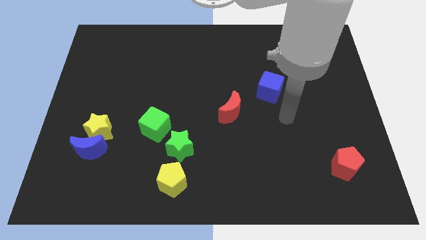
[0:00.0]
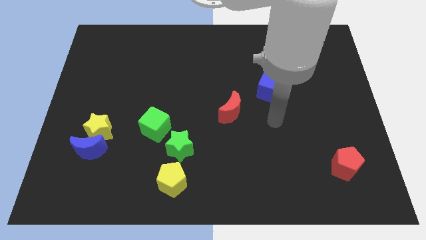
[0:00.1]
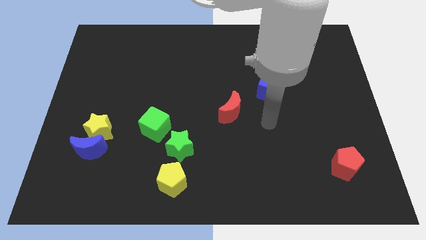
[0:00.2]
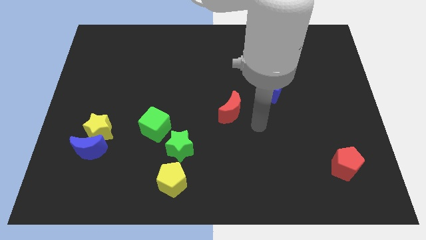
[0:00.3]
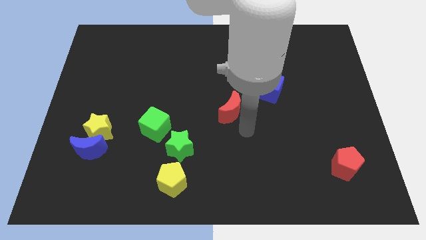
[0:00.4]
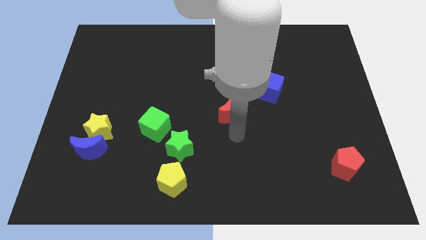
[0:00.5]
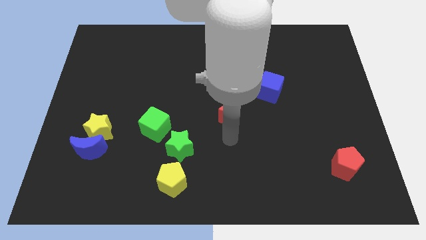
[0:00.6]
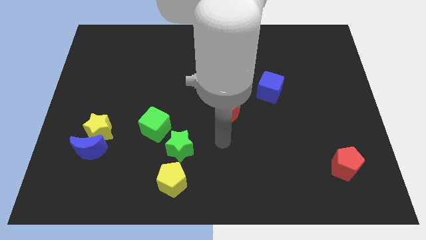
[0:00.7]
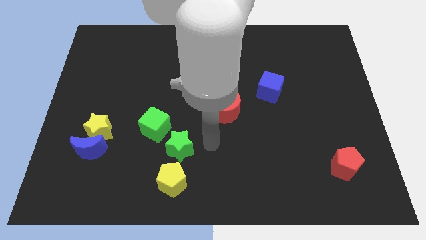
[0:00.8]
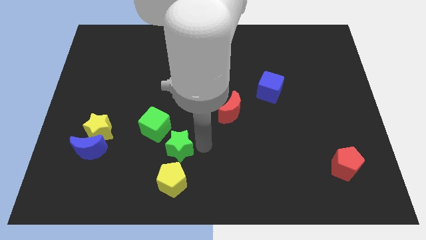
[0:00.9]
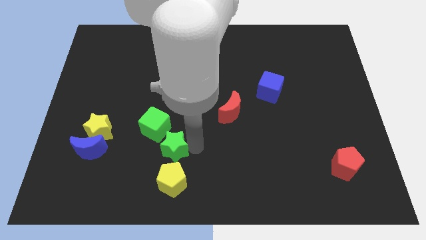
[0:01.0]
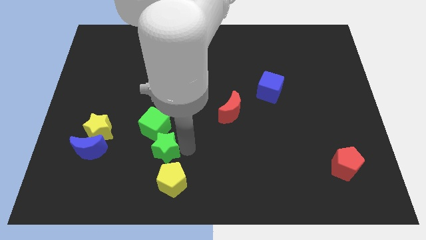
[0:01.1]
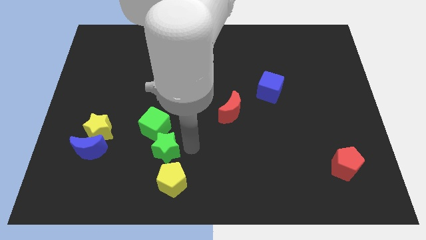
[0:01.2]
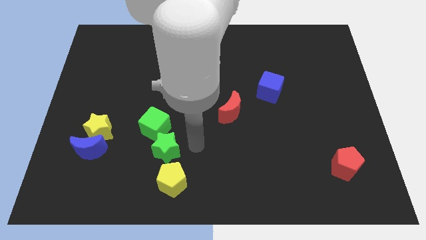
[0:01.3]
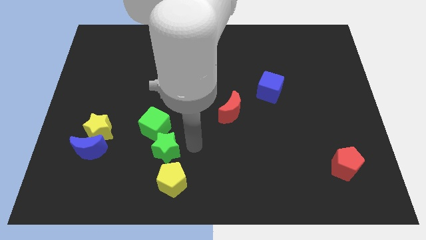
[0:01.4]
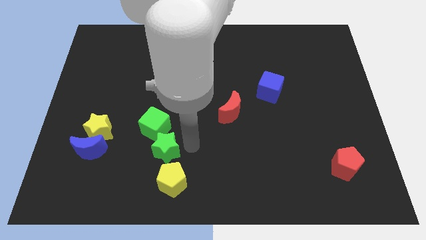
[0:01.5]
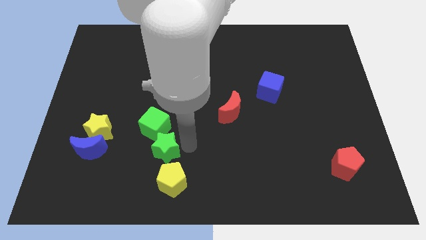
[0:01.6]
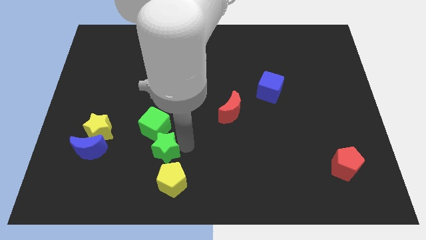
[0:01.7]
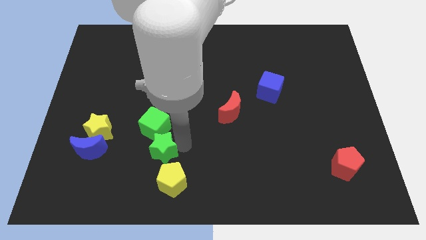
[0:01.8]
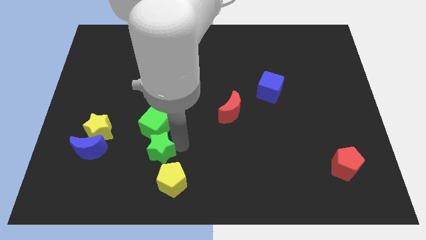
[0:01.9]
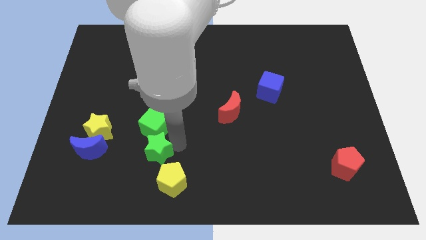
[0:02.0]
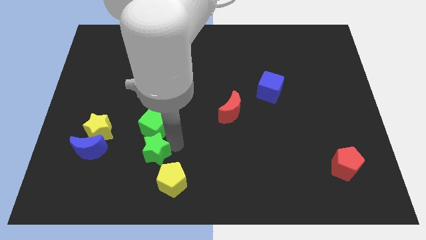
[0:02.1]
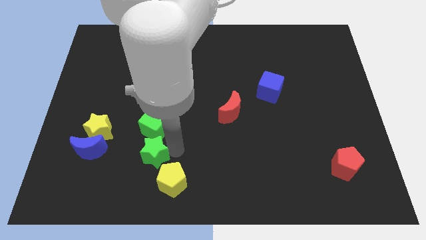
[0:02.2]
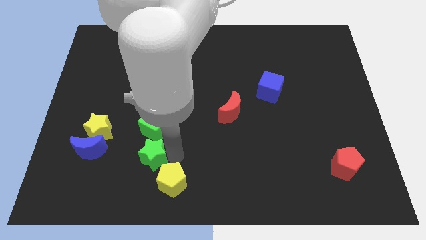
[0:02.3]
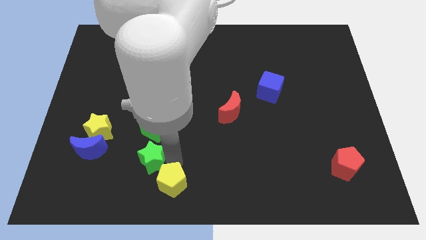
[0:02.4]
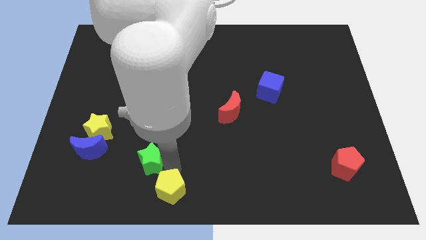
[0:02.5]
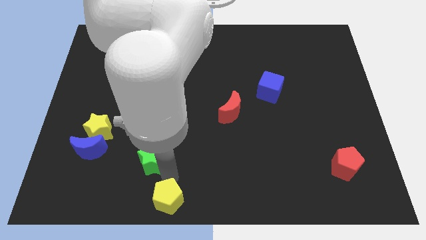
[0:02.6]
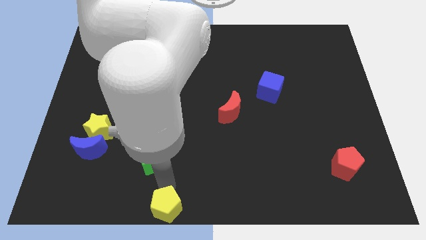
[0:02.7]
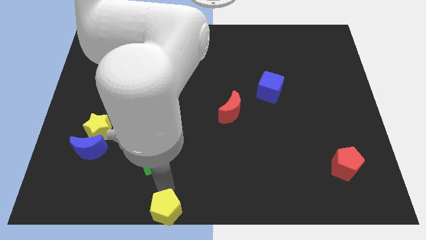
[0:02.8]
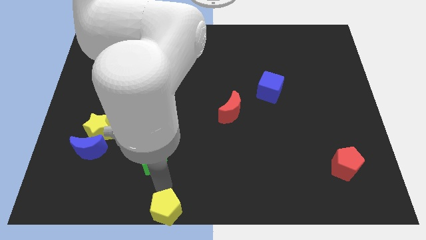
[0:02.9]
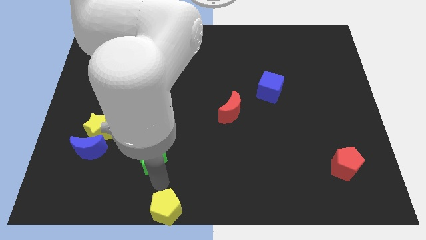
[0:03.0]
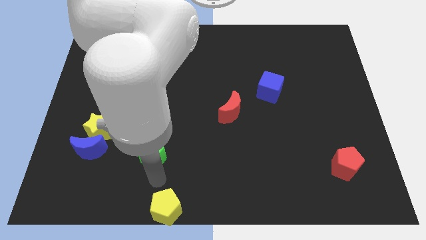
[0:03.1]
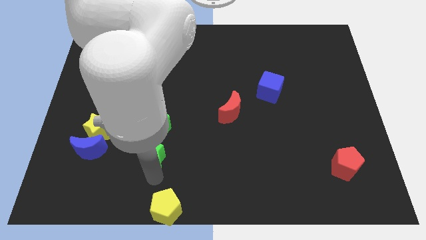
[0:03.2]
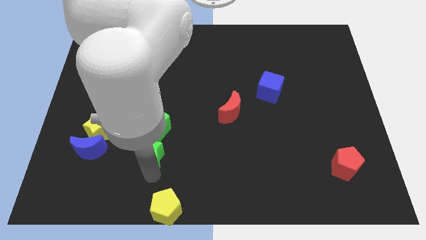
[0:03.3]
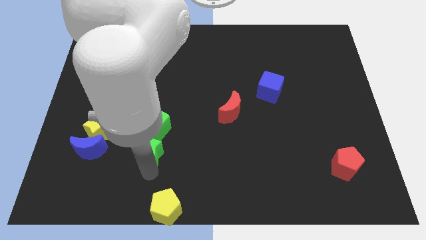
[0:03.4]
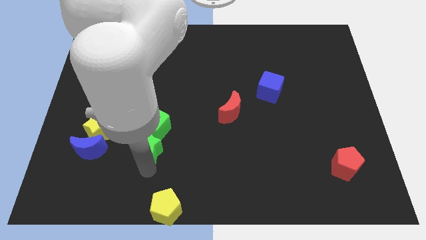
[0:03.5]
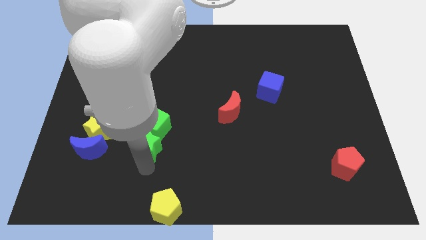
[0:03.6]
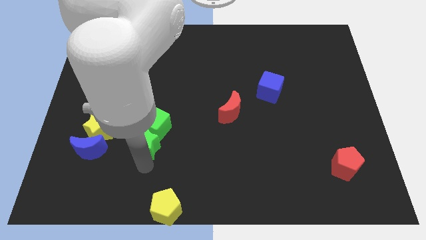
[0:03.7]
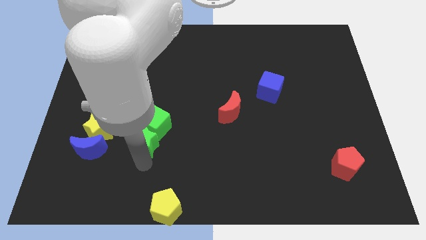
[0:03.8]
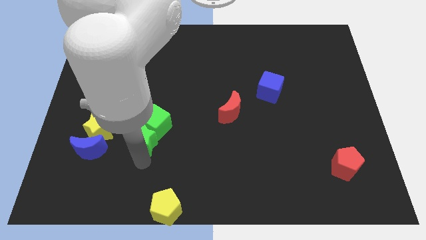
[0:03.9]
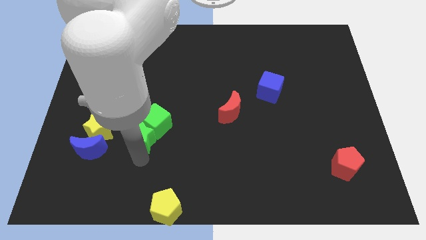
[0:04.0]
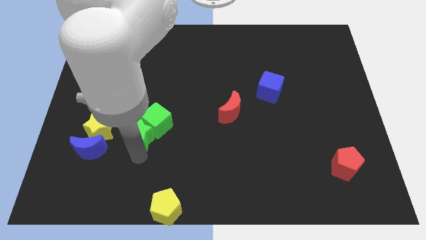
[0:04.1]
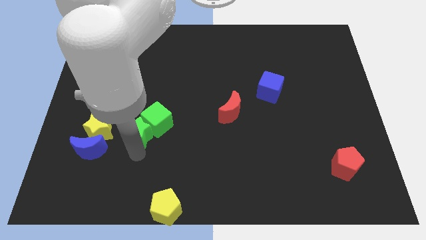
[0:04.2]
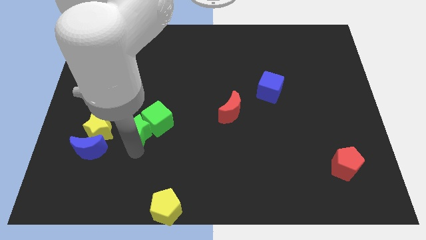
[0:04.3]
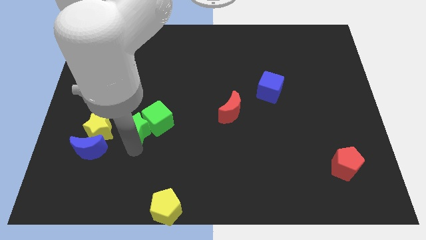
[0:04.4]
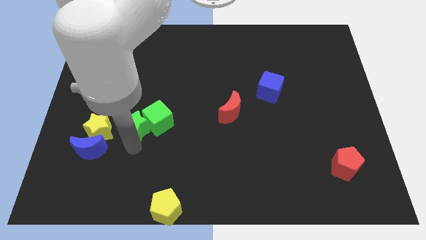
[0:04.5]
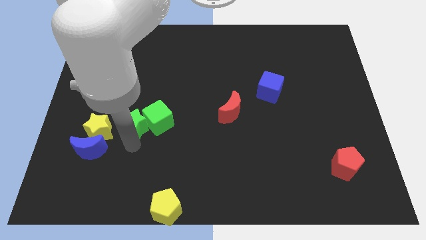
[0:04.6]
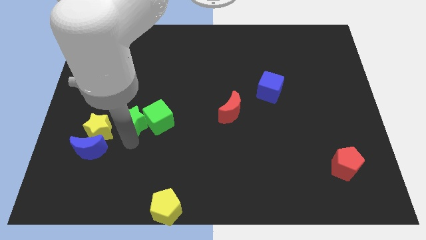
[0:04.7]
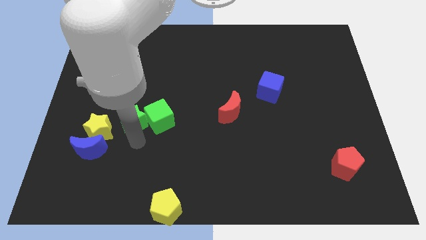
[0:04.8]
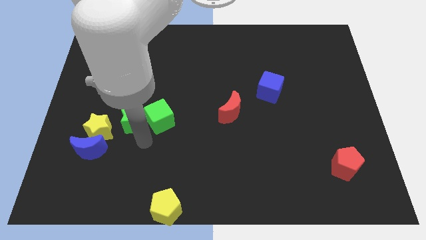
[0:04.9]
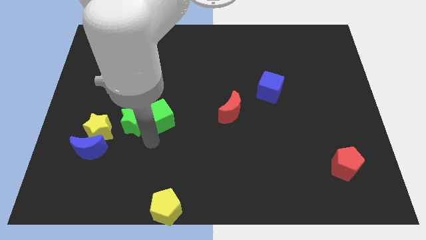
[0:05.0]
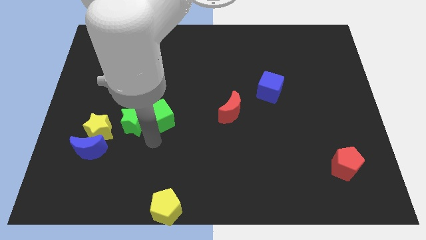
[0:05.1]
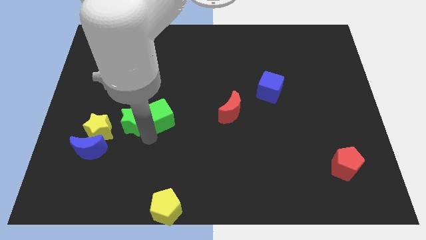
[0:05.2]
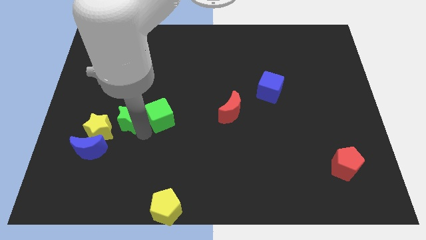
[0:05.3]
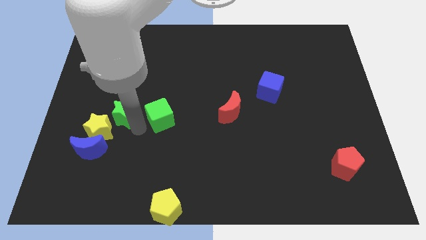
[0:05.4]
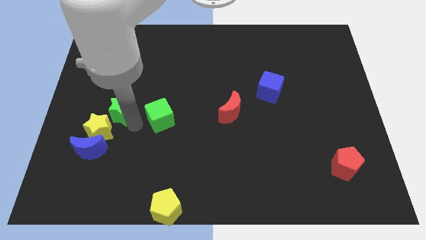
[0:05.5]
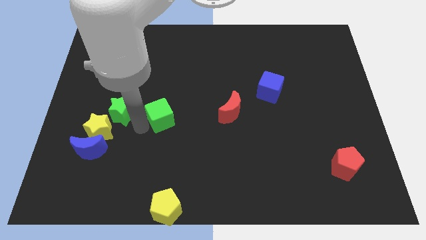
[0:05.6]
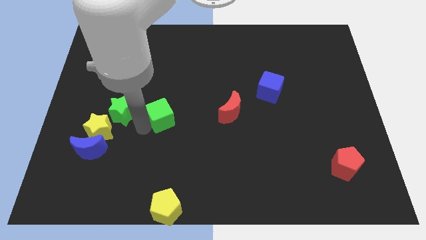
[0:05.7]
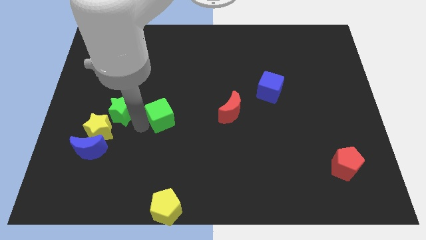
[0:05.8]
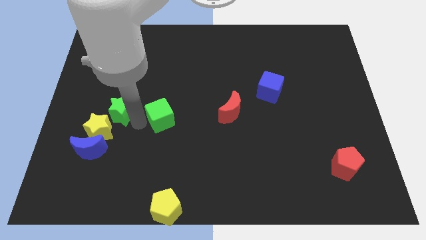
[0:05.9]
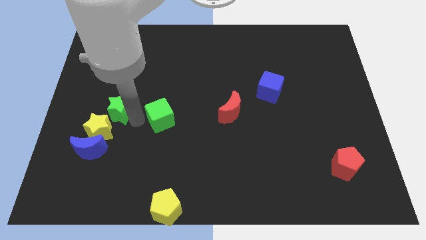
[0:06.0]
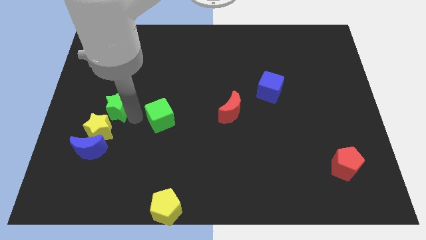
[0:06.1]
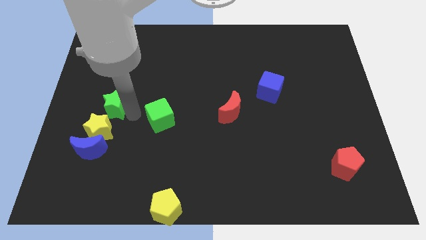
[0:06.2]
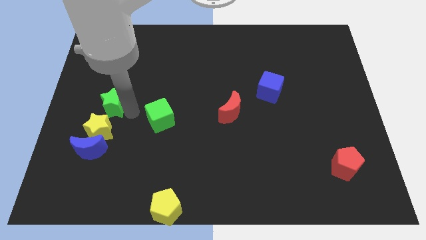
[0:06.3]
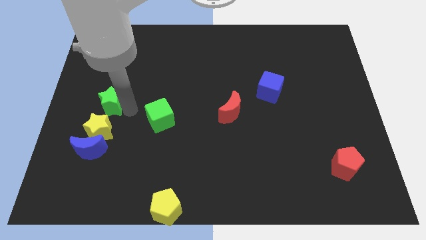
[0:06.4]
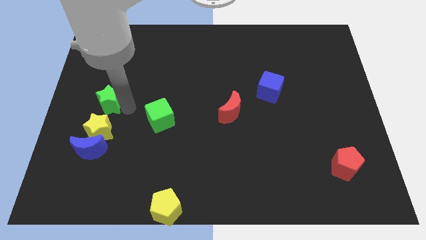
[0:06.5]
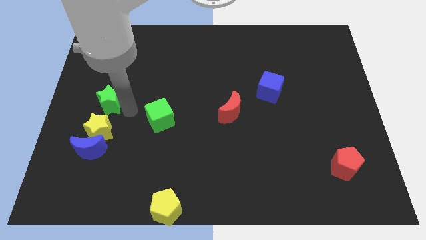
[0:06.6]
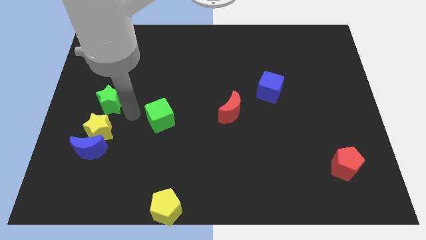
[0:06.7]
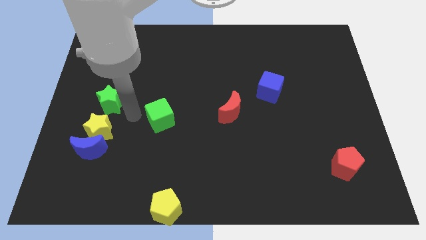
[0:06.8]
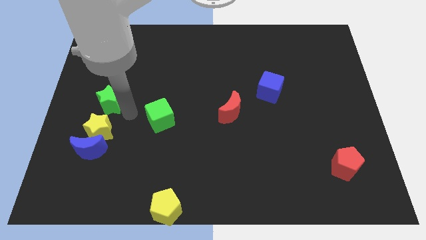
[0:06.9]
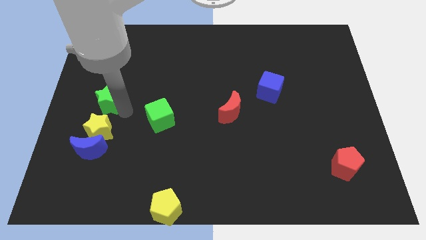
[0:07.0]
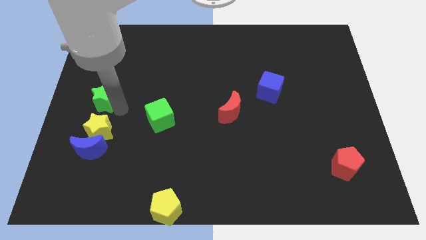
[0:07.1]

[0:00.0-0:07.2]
move the green star to the left side
